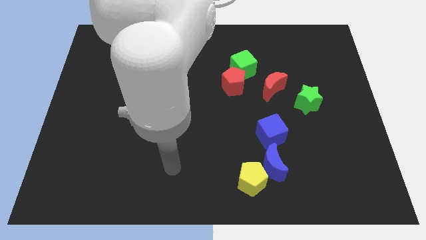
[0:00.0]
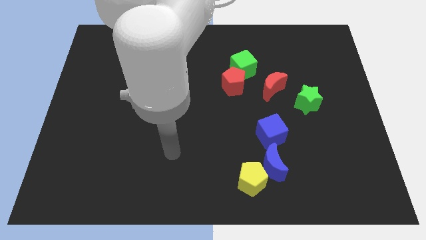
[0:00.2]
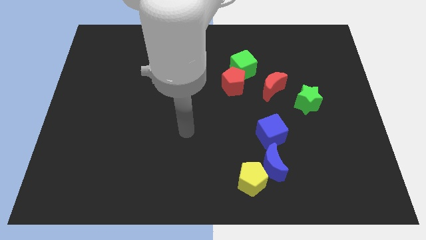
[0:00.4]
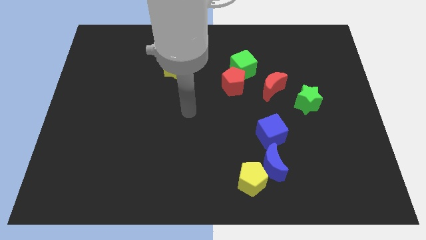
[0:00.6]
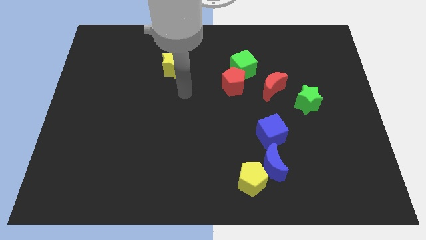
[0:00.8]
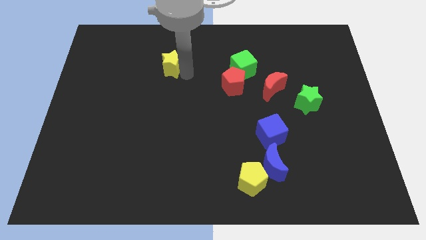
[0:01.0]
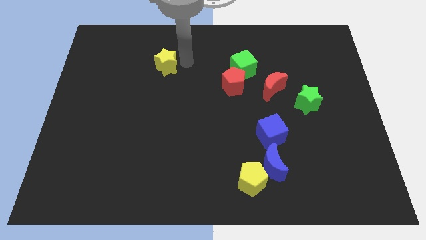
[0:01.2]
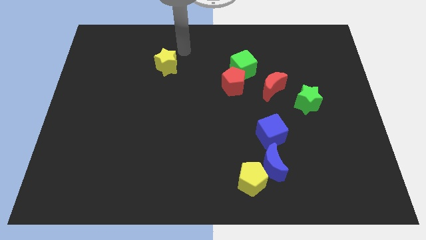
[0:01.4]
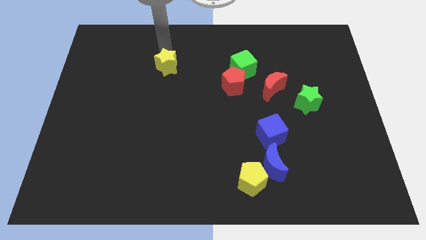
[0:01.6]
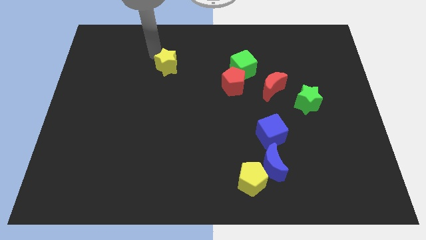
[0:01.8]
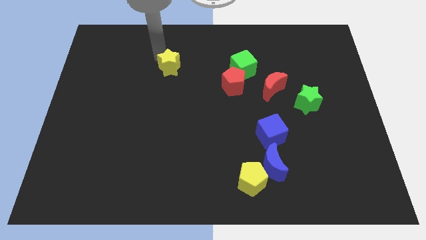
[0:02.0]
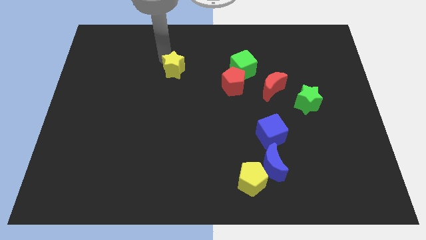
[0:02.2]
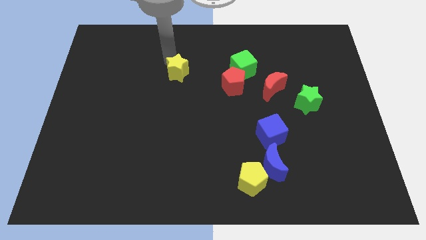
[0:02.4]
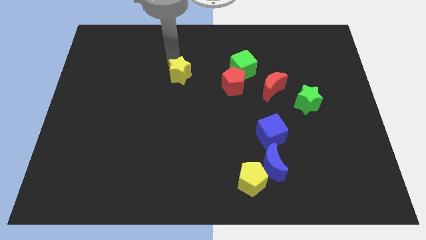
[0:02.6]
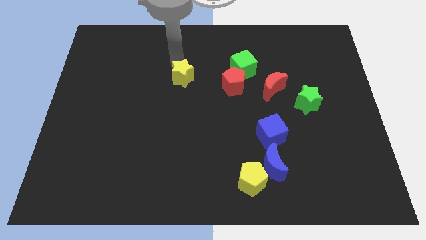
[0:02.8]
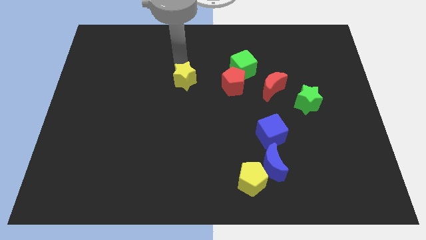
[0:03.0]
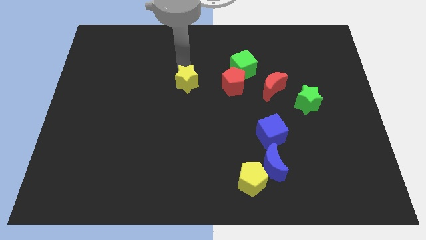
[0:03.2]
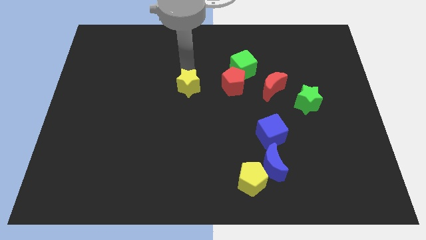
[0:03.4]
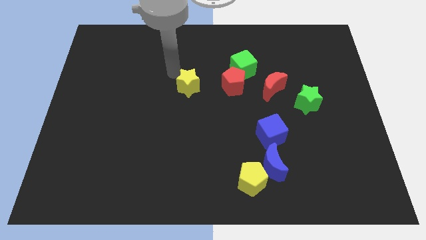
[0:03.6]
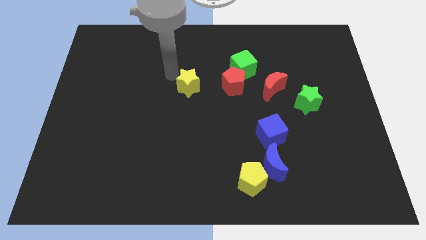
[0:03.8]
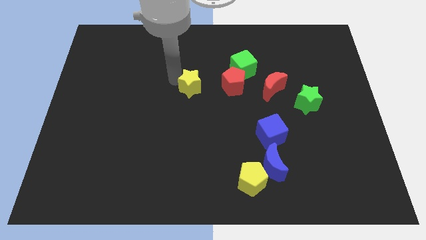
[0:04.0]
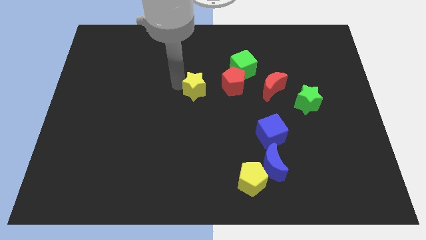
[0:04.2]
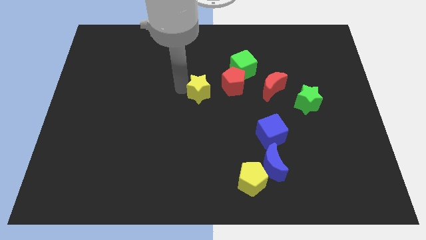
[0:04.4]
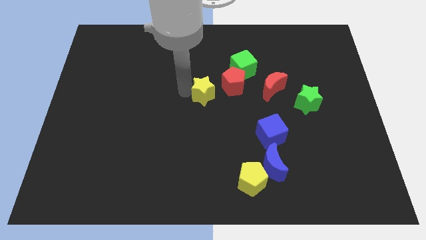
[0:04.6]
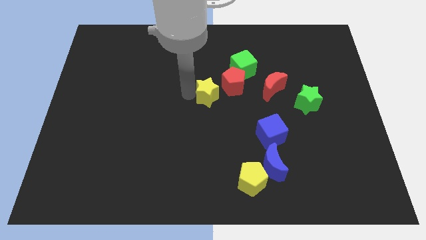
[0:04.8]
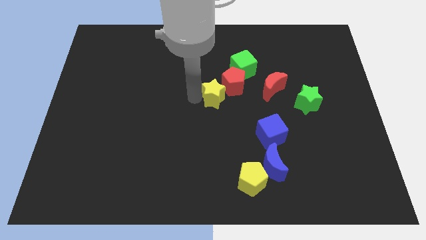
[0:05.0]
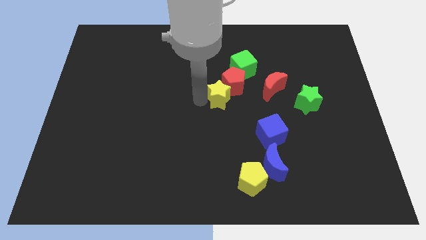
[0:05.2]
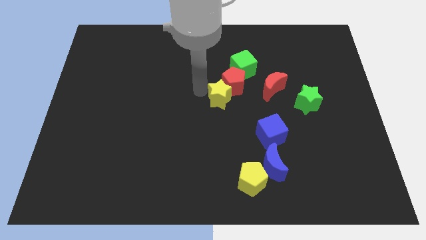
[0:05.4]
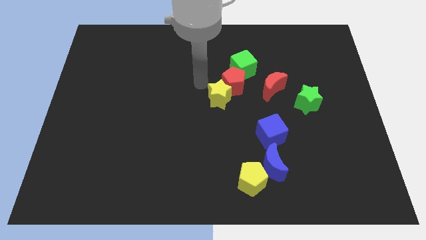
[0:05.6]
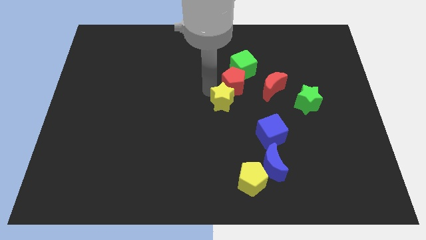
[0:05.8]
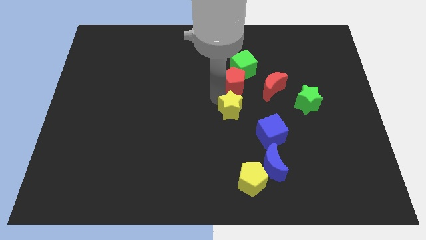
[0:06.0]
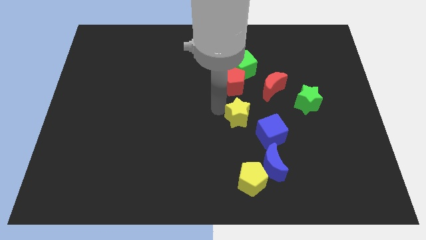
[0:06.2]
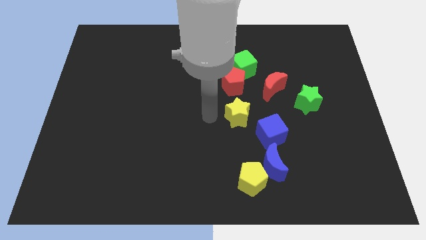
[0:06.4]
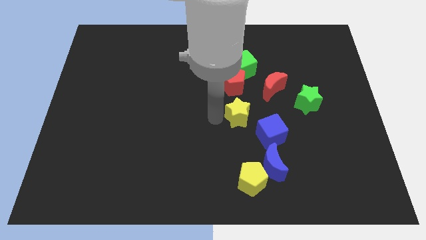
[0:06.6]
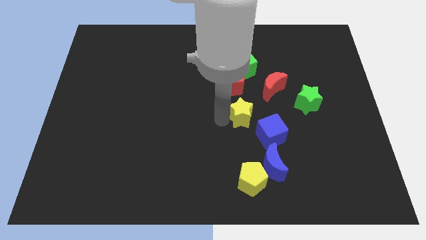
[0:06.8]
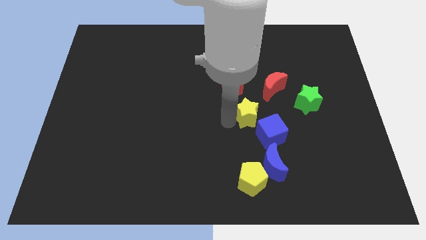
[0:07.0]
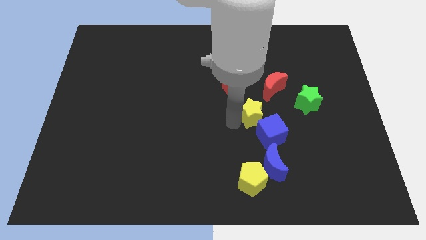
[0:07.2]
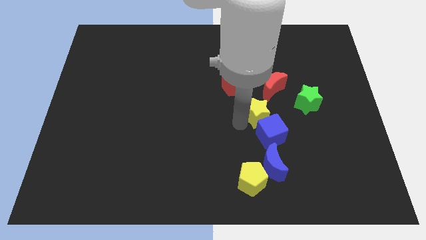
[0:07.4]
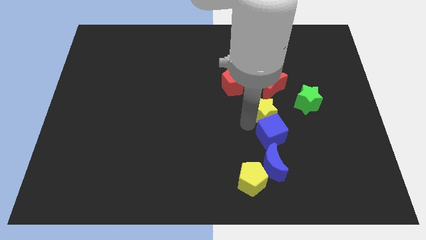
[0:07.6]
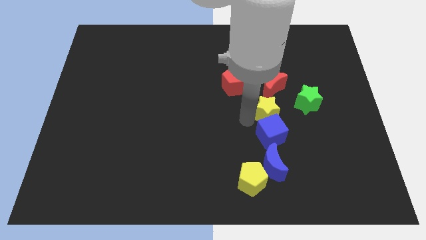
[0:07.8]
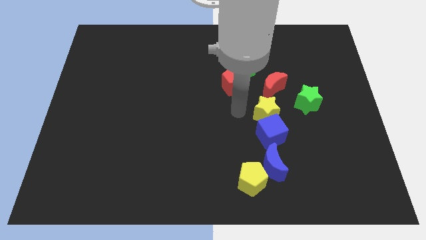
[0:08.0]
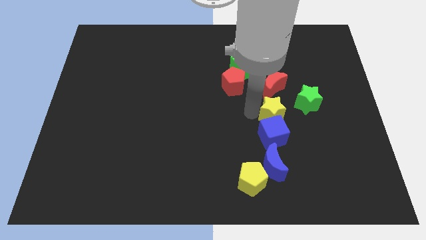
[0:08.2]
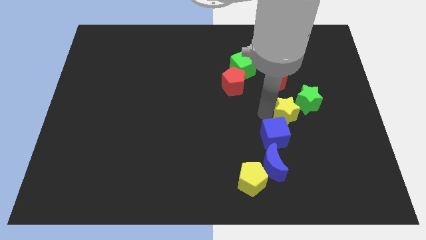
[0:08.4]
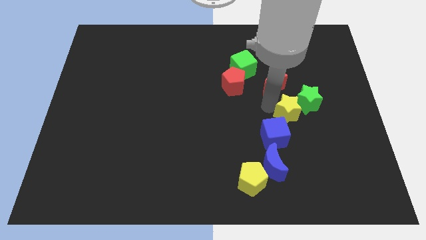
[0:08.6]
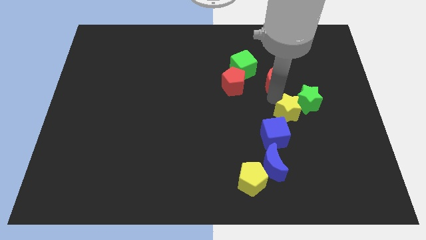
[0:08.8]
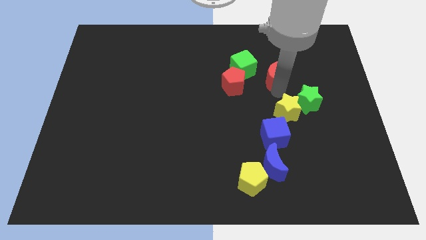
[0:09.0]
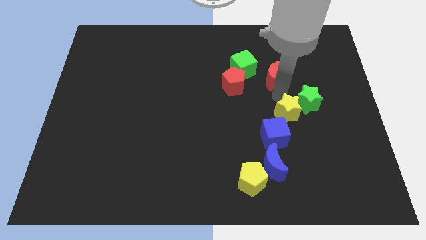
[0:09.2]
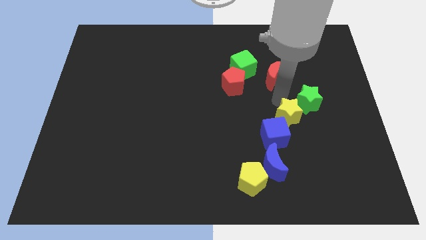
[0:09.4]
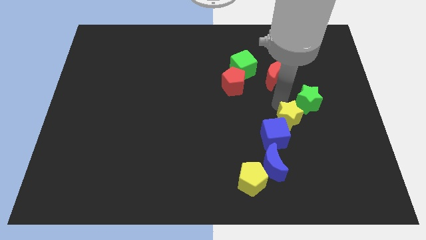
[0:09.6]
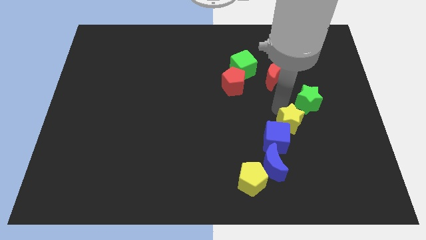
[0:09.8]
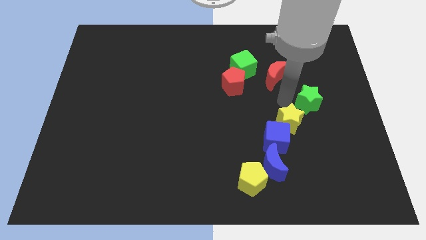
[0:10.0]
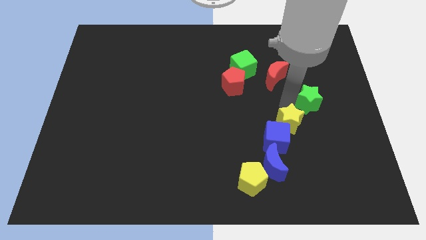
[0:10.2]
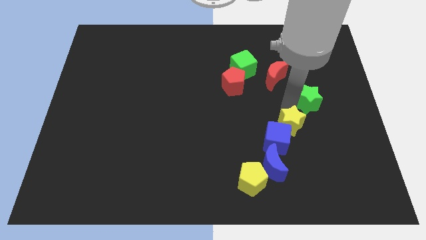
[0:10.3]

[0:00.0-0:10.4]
put the yellow star to the top right of the blue moon
